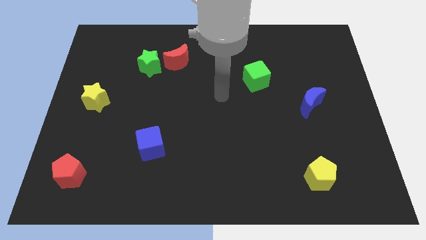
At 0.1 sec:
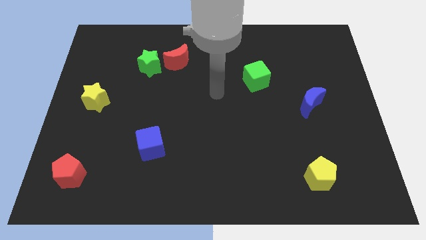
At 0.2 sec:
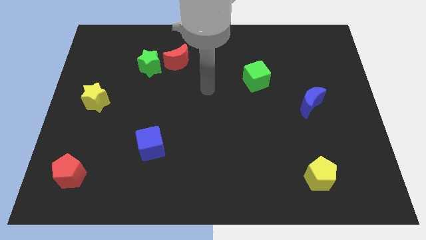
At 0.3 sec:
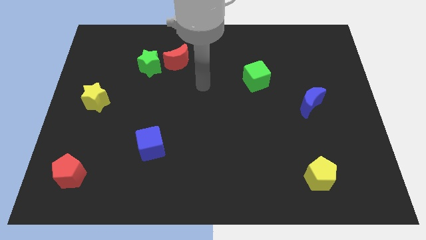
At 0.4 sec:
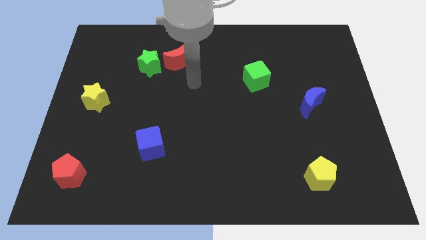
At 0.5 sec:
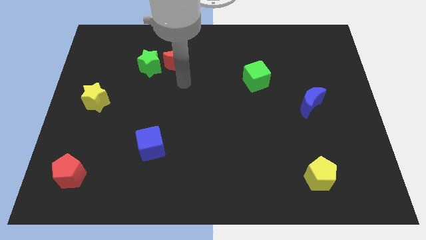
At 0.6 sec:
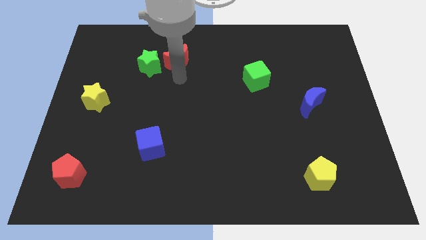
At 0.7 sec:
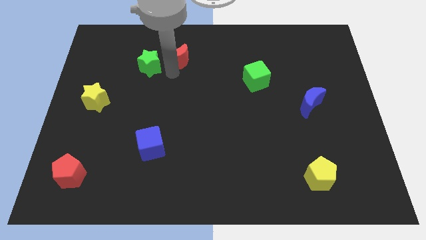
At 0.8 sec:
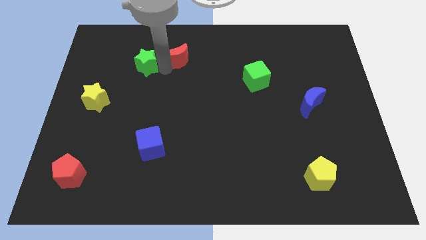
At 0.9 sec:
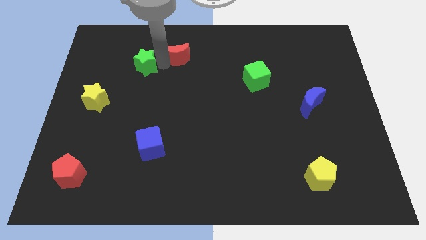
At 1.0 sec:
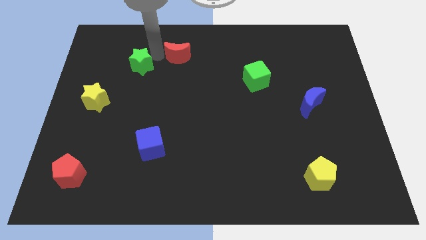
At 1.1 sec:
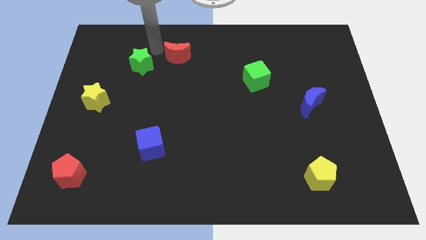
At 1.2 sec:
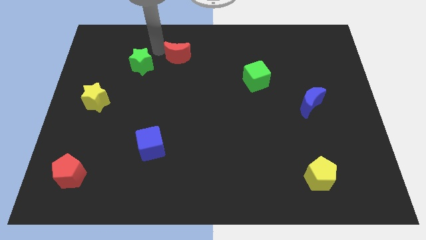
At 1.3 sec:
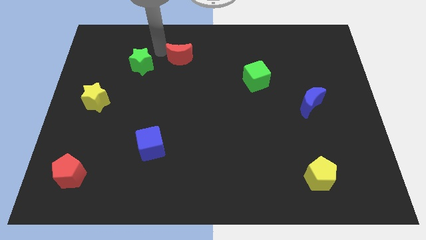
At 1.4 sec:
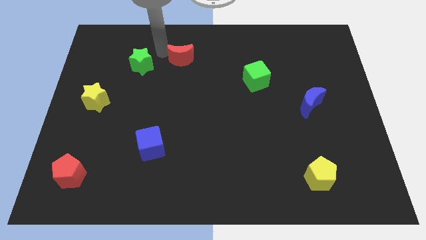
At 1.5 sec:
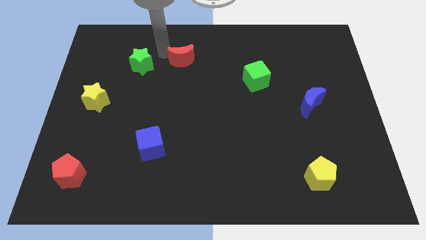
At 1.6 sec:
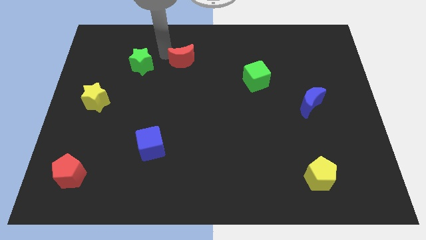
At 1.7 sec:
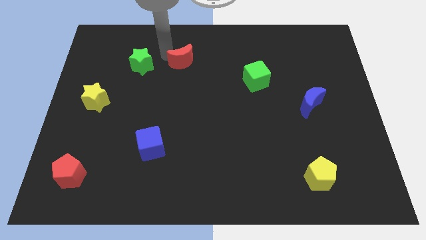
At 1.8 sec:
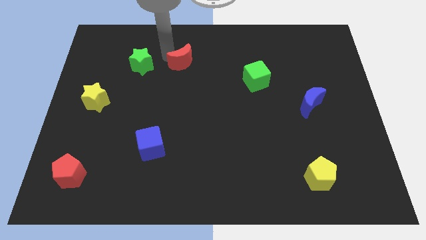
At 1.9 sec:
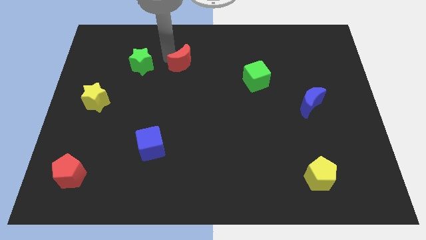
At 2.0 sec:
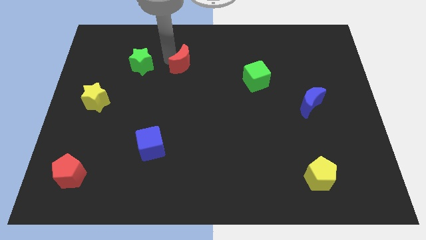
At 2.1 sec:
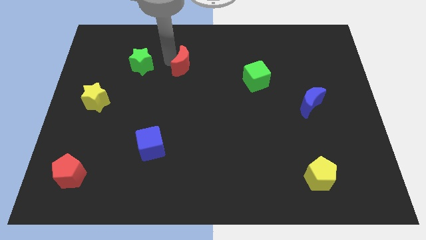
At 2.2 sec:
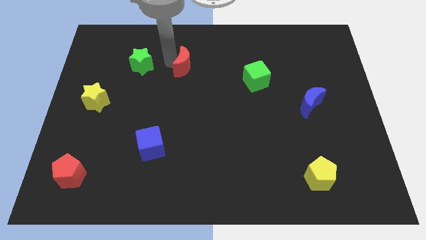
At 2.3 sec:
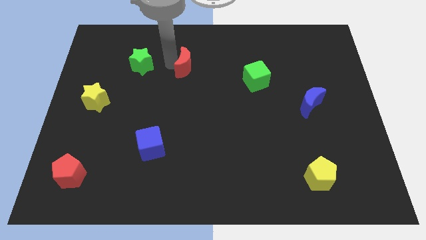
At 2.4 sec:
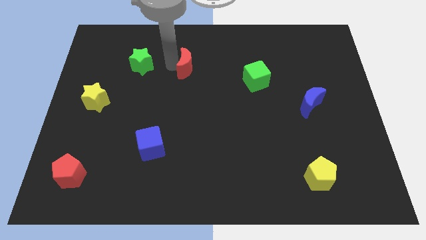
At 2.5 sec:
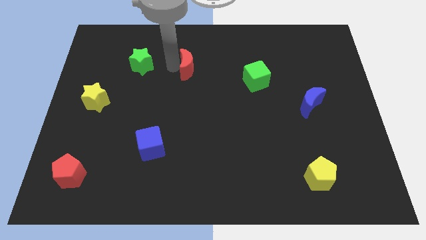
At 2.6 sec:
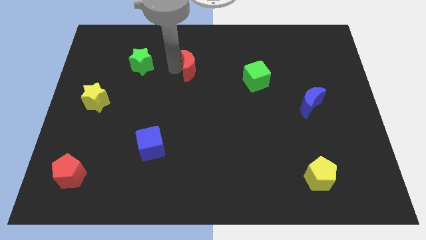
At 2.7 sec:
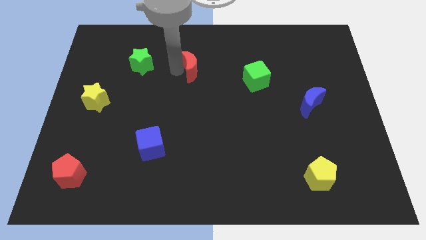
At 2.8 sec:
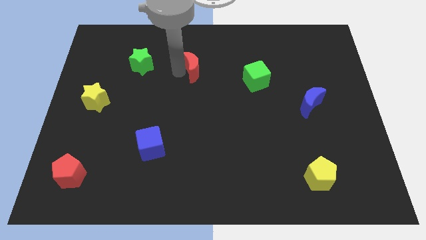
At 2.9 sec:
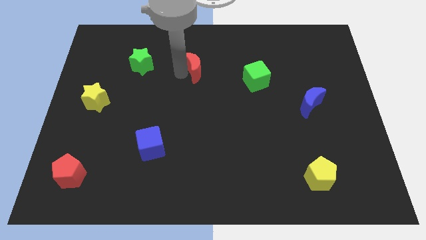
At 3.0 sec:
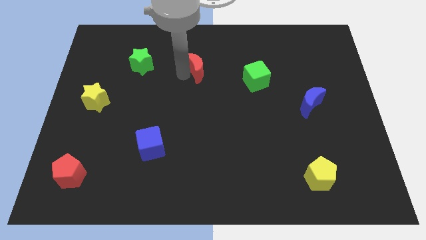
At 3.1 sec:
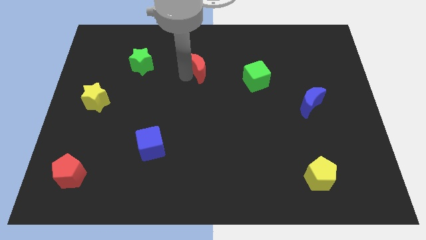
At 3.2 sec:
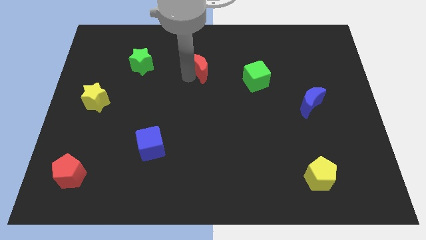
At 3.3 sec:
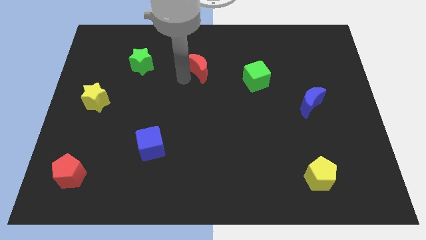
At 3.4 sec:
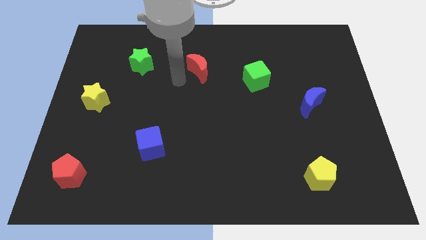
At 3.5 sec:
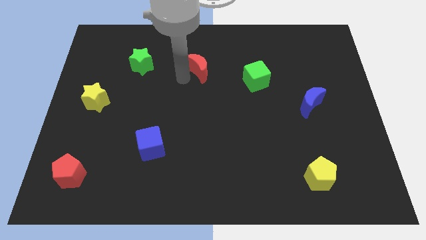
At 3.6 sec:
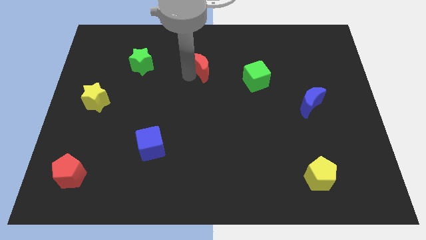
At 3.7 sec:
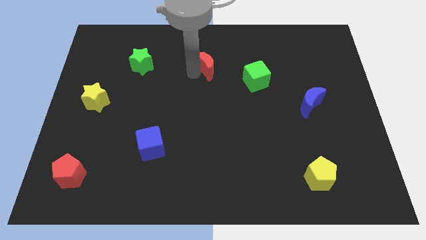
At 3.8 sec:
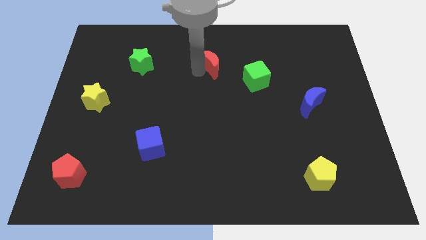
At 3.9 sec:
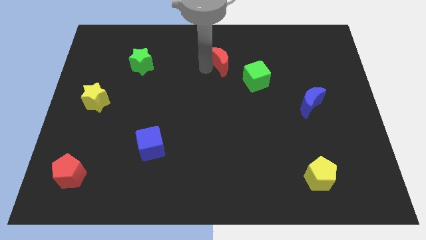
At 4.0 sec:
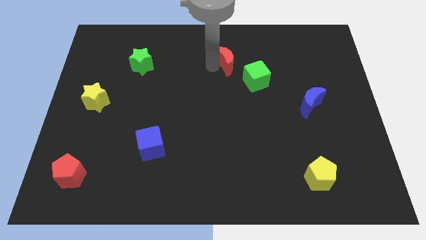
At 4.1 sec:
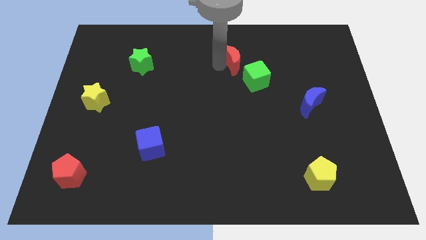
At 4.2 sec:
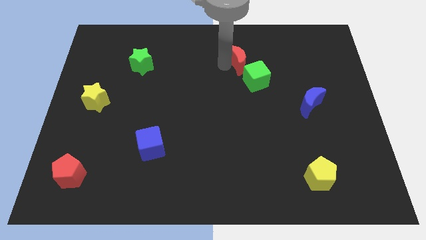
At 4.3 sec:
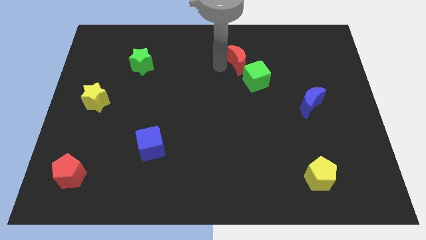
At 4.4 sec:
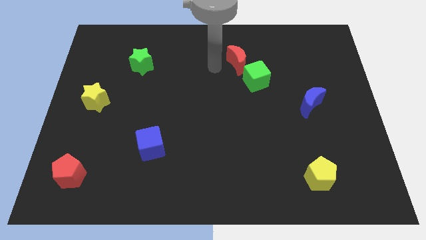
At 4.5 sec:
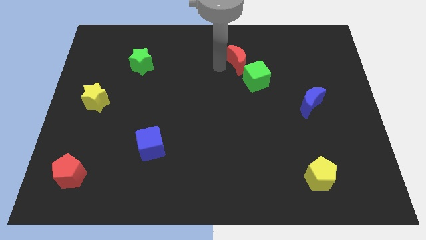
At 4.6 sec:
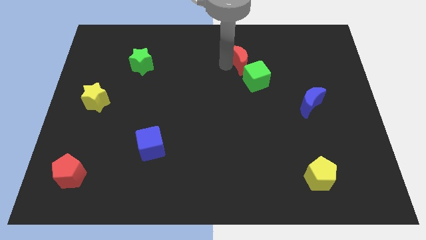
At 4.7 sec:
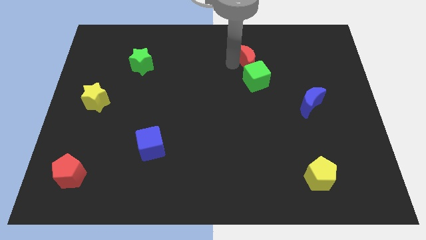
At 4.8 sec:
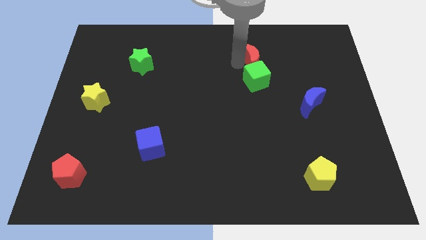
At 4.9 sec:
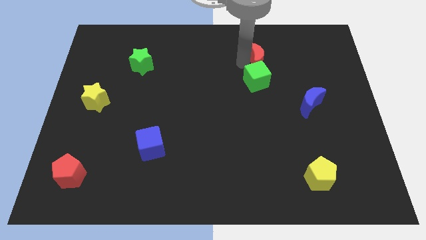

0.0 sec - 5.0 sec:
move the red moon right

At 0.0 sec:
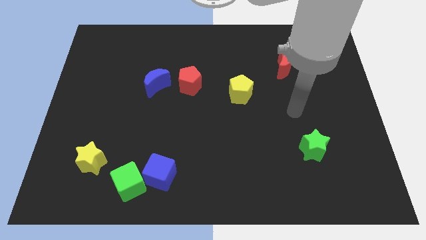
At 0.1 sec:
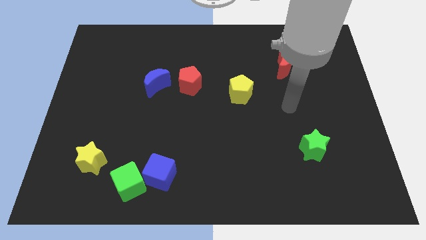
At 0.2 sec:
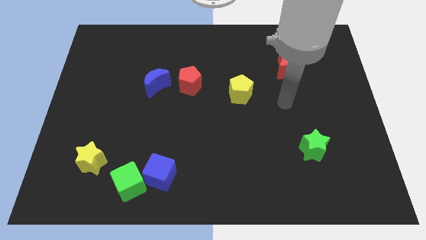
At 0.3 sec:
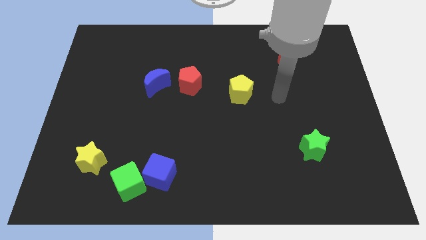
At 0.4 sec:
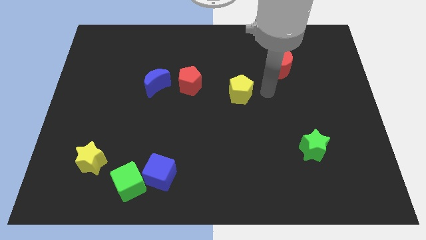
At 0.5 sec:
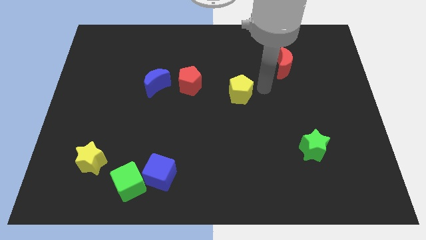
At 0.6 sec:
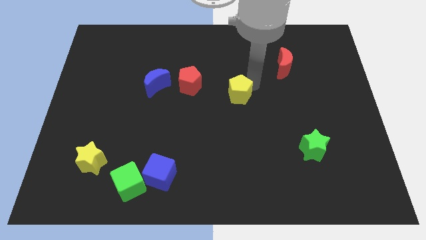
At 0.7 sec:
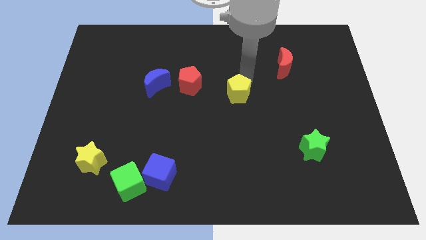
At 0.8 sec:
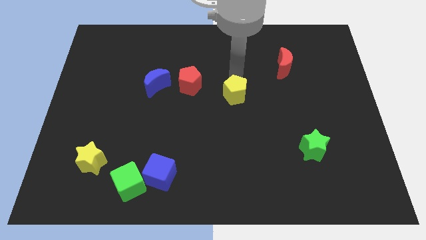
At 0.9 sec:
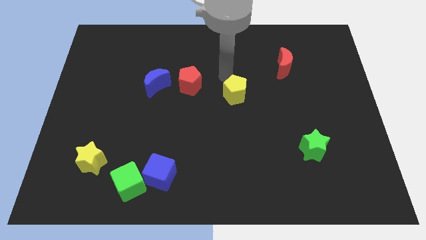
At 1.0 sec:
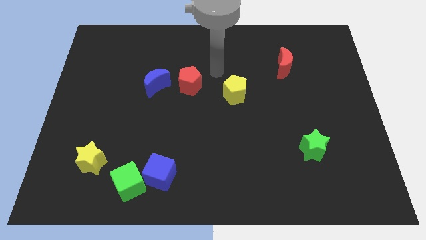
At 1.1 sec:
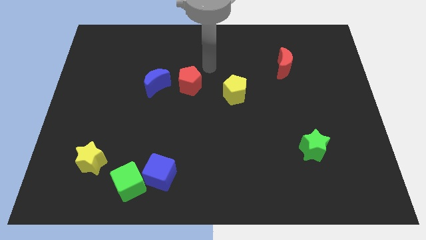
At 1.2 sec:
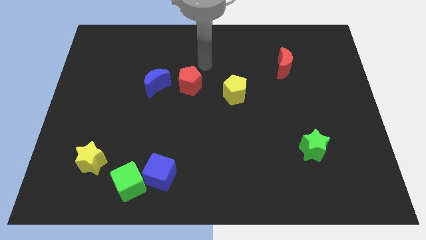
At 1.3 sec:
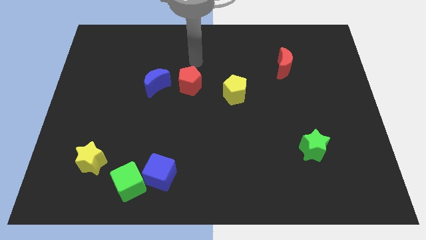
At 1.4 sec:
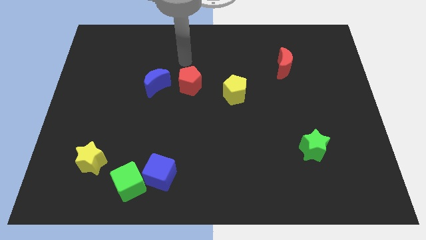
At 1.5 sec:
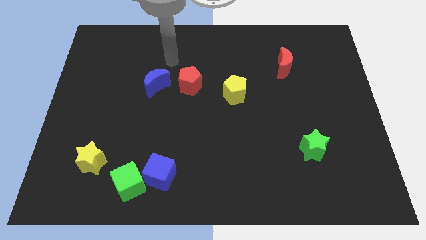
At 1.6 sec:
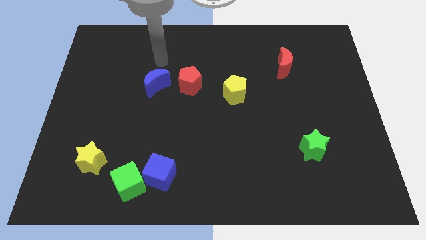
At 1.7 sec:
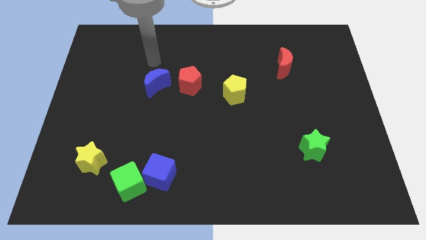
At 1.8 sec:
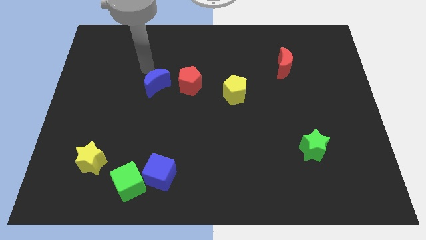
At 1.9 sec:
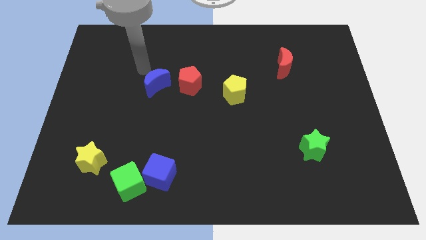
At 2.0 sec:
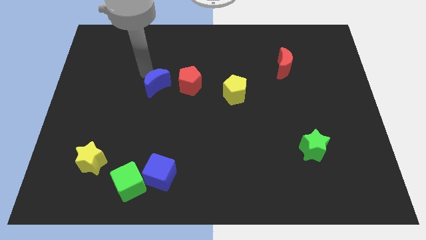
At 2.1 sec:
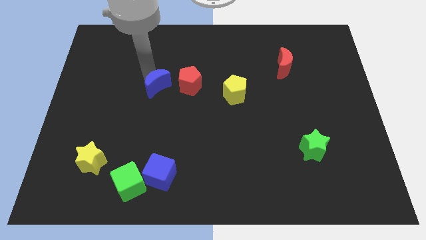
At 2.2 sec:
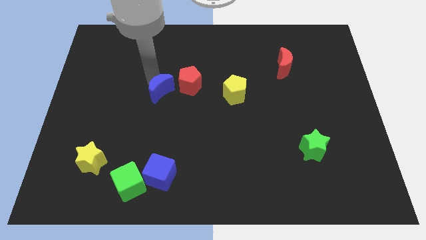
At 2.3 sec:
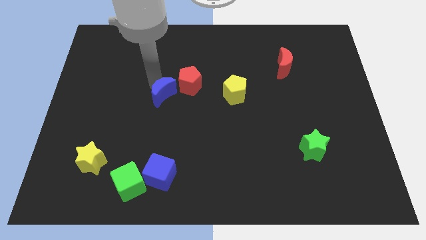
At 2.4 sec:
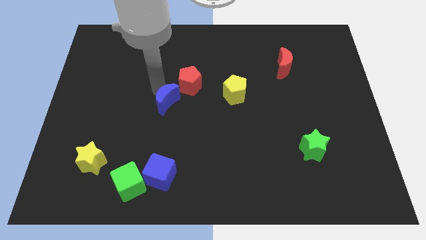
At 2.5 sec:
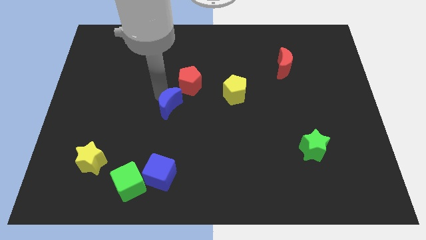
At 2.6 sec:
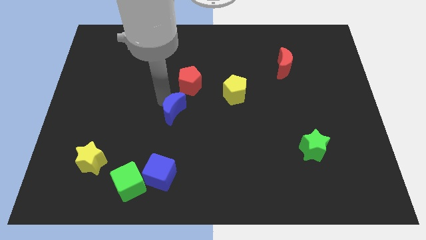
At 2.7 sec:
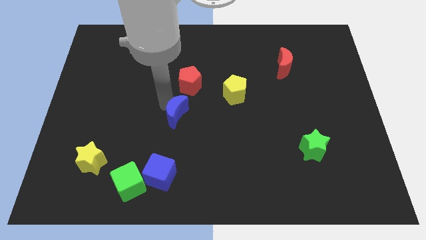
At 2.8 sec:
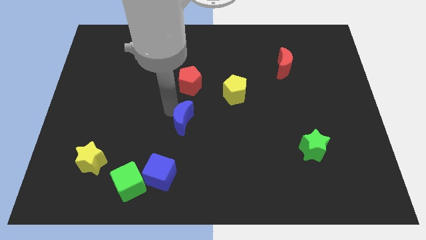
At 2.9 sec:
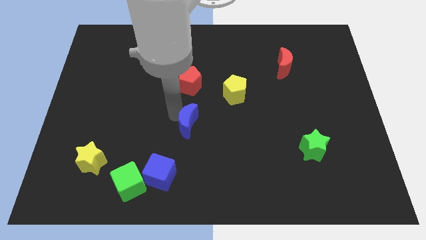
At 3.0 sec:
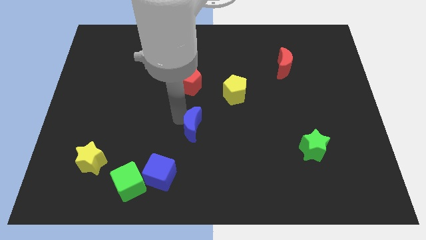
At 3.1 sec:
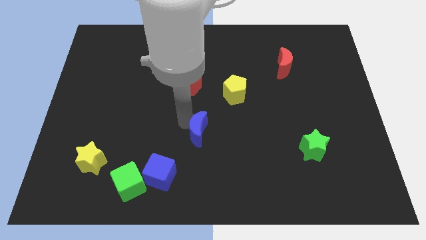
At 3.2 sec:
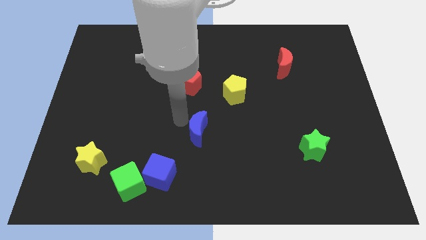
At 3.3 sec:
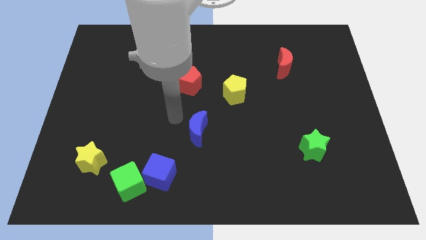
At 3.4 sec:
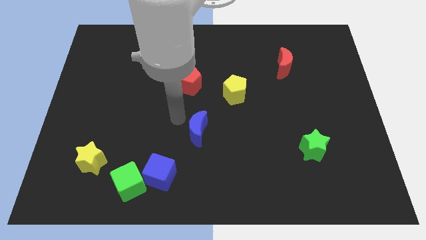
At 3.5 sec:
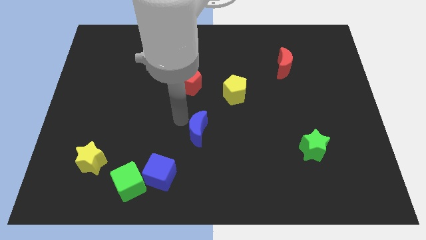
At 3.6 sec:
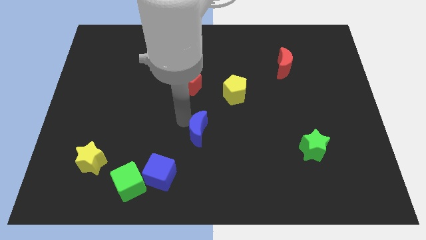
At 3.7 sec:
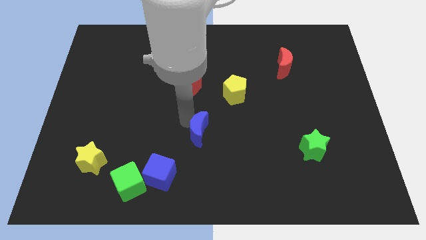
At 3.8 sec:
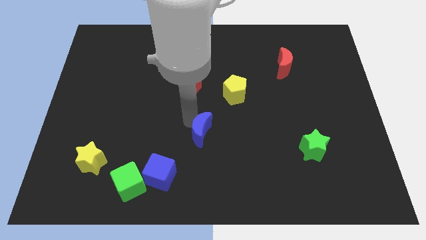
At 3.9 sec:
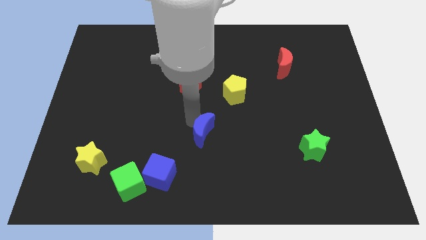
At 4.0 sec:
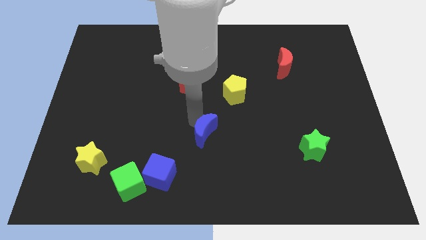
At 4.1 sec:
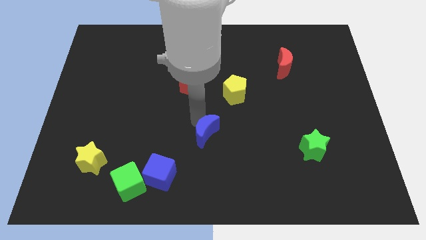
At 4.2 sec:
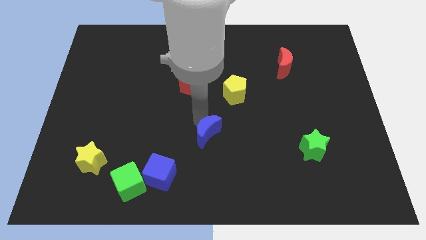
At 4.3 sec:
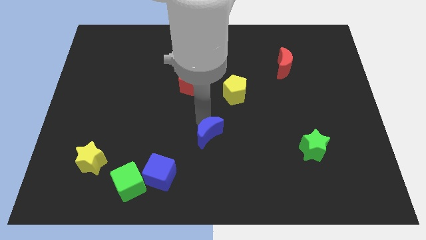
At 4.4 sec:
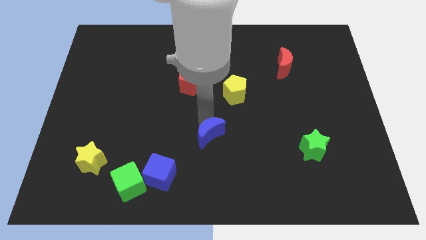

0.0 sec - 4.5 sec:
push the blue moon down and right
